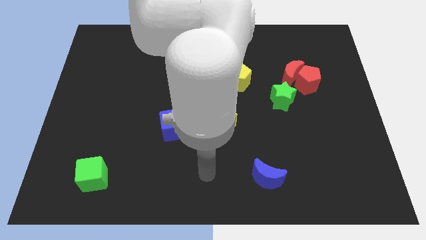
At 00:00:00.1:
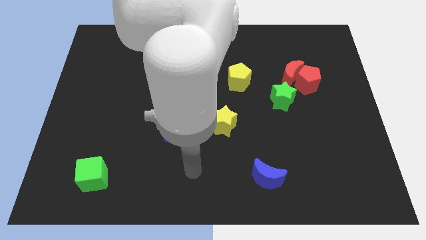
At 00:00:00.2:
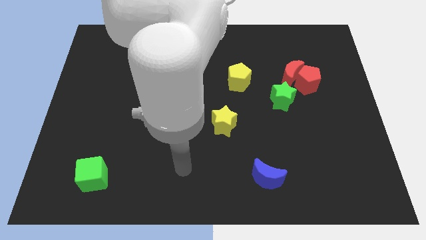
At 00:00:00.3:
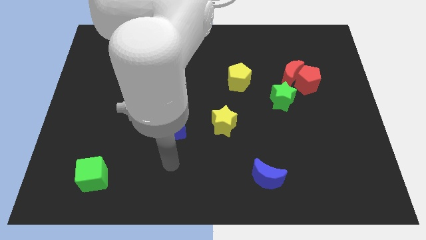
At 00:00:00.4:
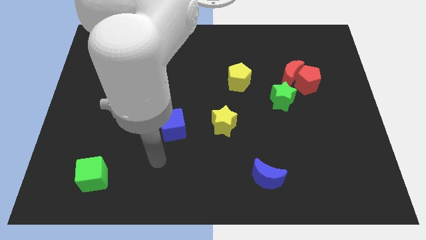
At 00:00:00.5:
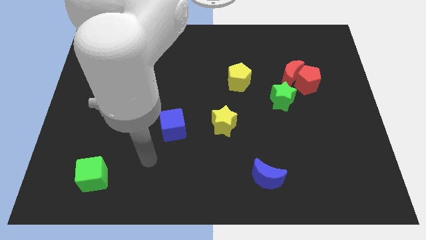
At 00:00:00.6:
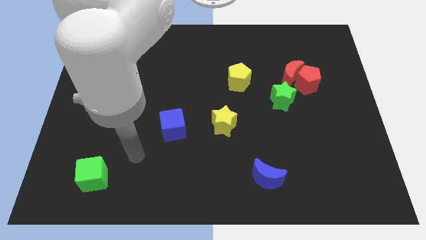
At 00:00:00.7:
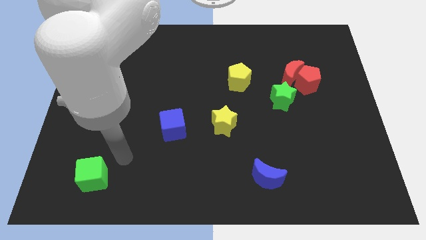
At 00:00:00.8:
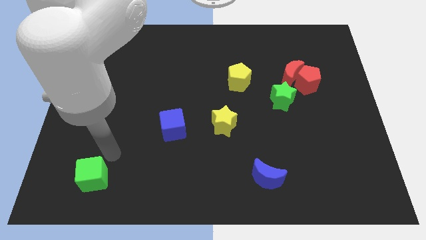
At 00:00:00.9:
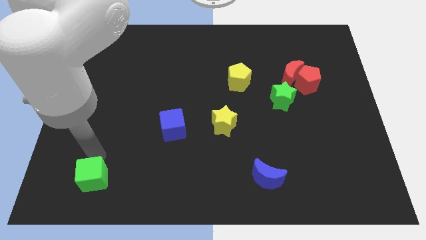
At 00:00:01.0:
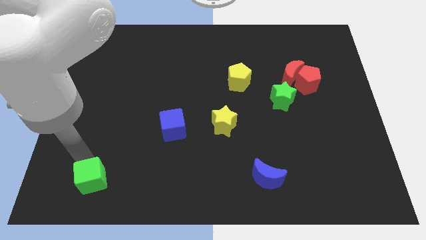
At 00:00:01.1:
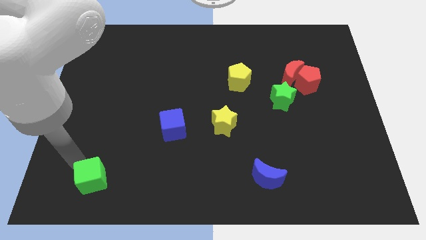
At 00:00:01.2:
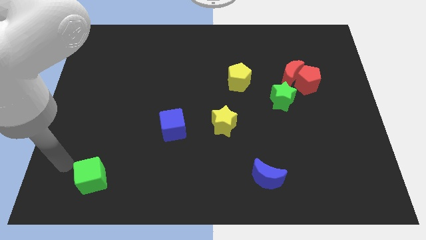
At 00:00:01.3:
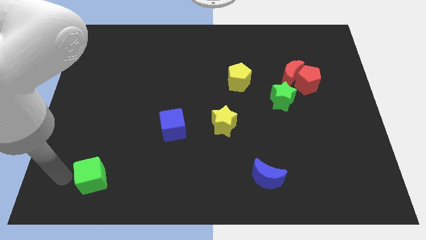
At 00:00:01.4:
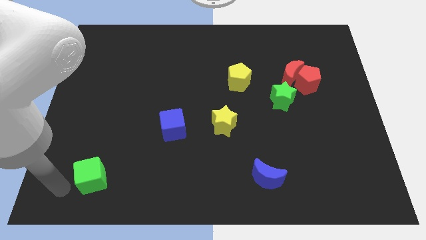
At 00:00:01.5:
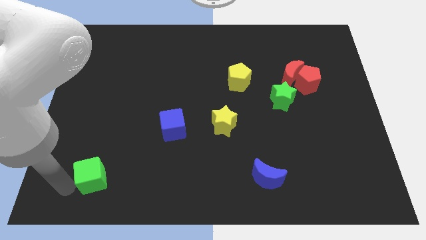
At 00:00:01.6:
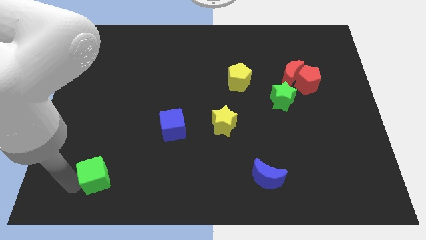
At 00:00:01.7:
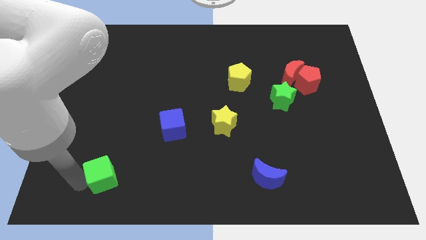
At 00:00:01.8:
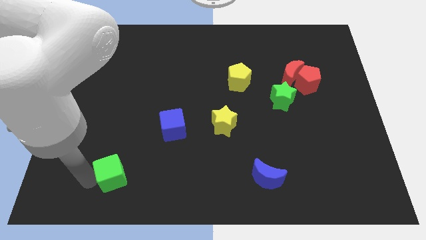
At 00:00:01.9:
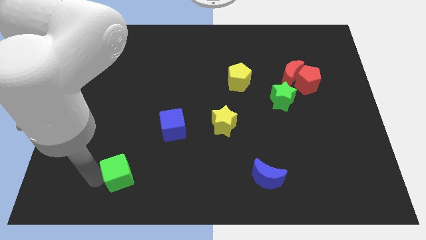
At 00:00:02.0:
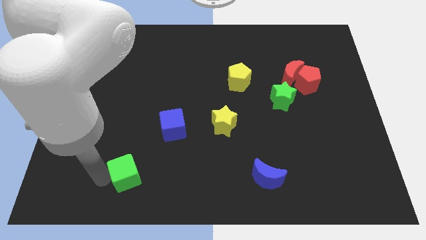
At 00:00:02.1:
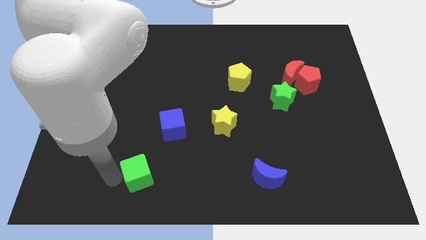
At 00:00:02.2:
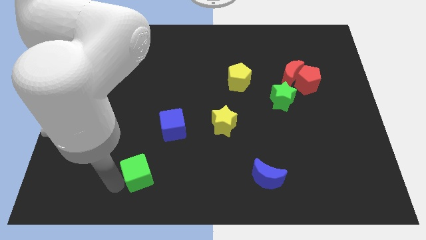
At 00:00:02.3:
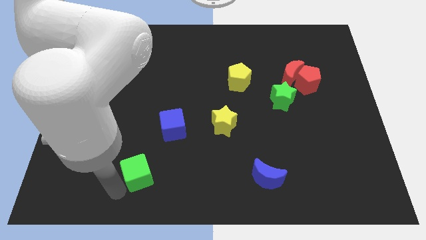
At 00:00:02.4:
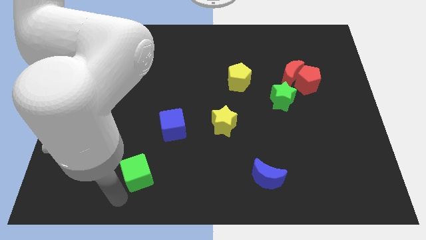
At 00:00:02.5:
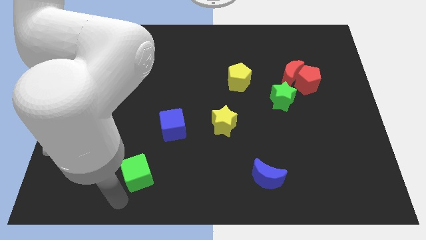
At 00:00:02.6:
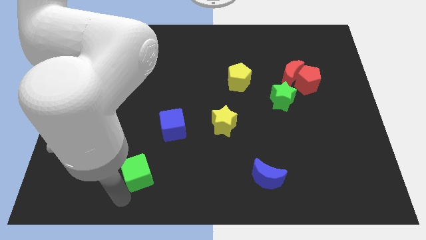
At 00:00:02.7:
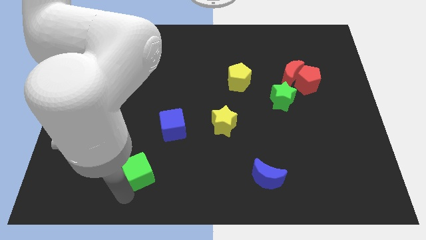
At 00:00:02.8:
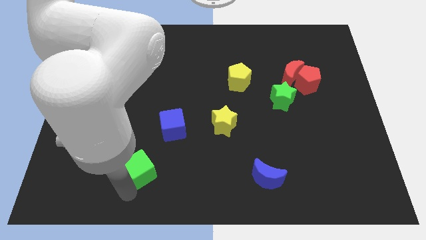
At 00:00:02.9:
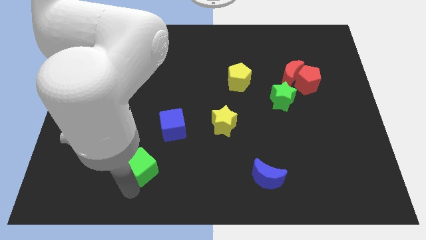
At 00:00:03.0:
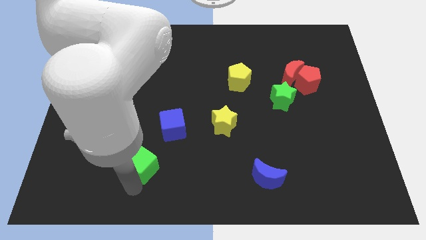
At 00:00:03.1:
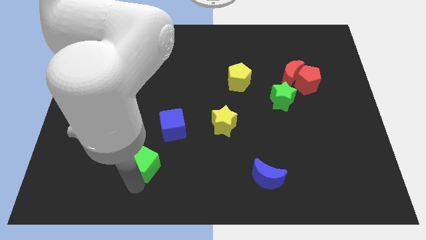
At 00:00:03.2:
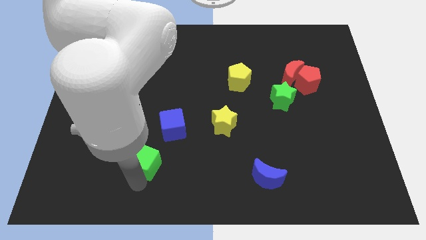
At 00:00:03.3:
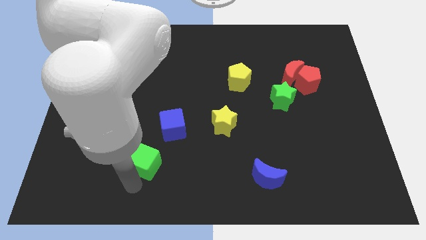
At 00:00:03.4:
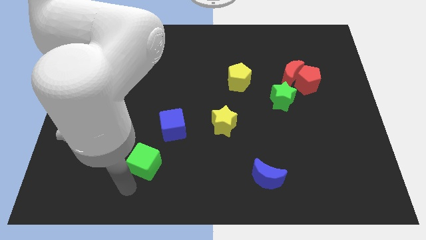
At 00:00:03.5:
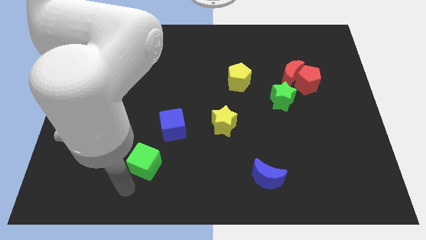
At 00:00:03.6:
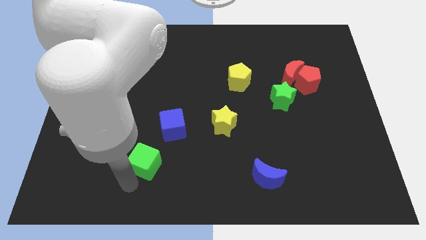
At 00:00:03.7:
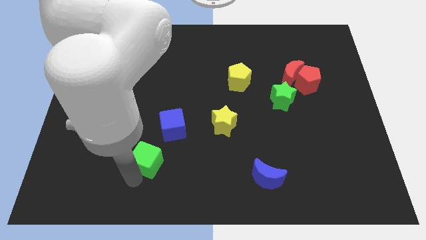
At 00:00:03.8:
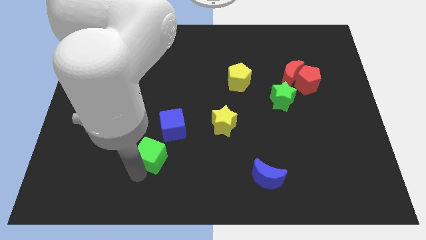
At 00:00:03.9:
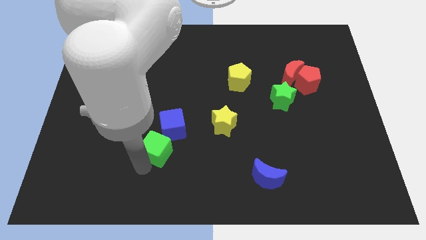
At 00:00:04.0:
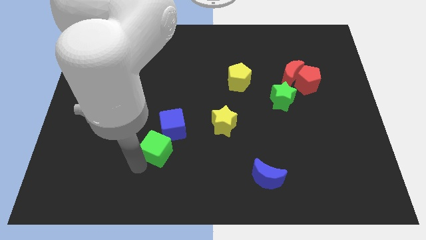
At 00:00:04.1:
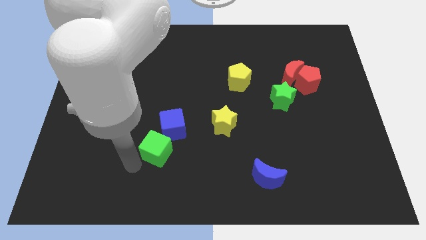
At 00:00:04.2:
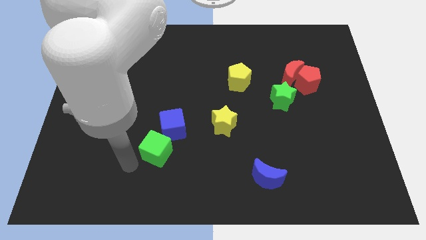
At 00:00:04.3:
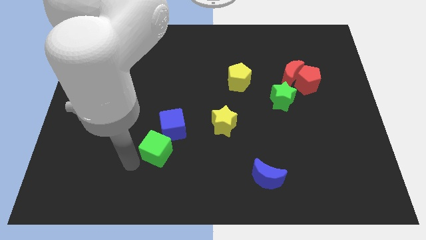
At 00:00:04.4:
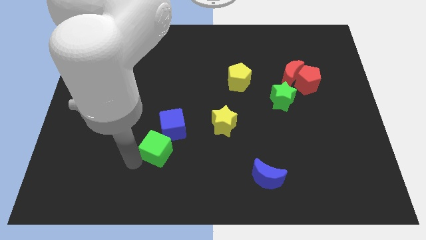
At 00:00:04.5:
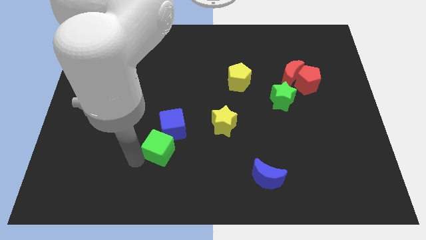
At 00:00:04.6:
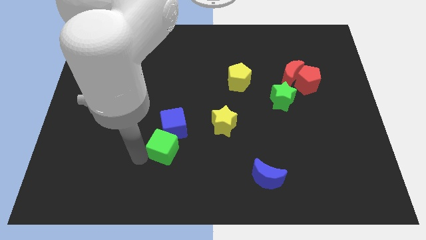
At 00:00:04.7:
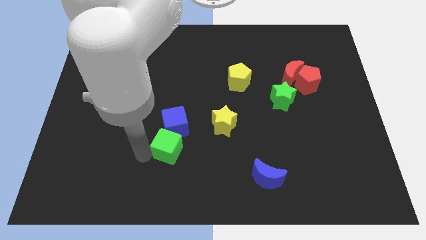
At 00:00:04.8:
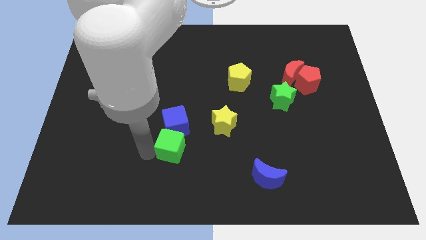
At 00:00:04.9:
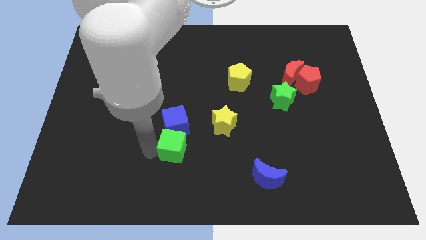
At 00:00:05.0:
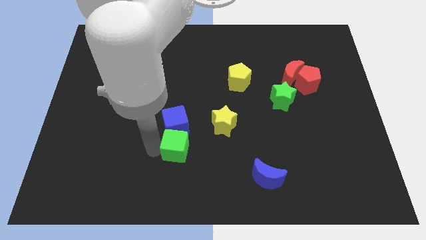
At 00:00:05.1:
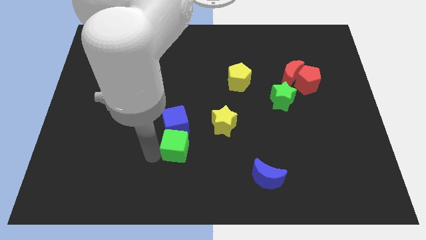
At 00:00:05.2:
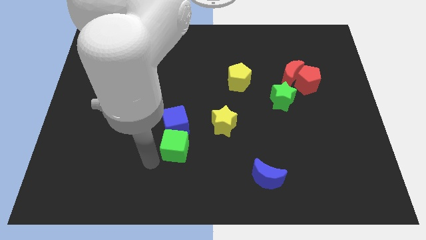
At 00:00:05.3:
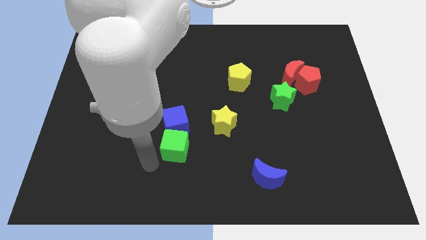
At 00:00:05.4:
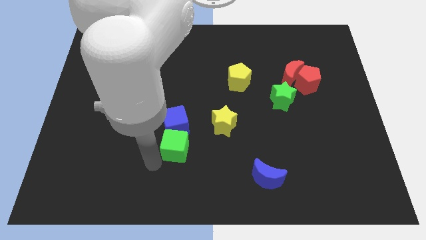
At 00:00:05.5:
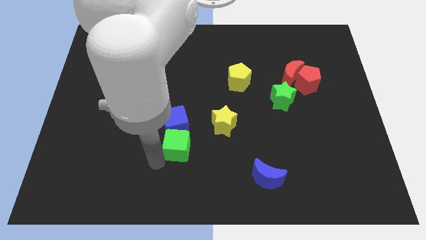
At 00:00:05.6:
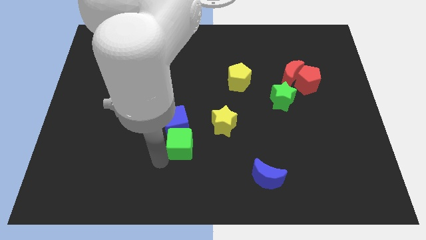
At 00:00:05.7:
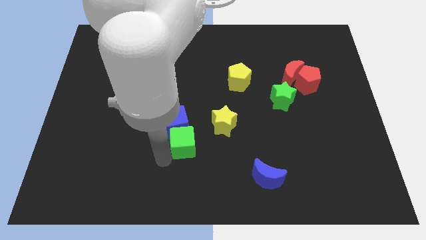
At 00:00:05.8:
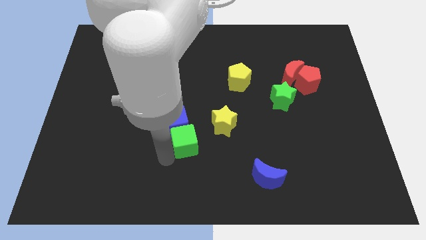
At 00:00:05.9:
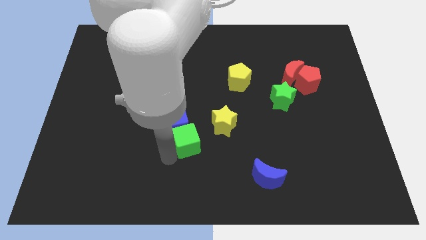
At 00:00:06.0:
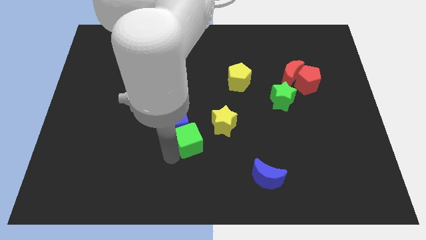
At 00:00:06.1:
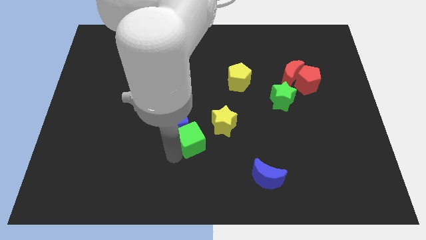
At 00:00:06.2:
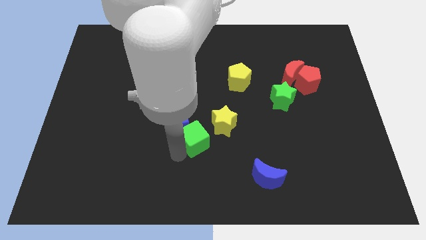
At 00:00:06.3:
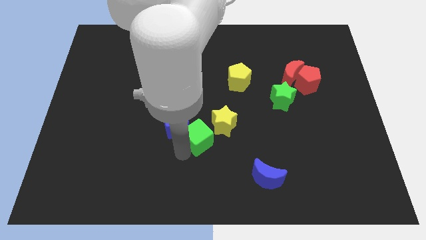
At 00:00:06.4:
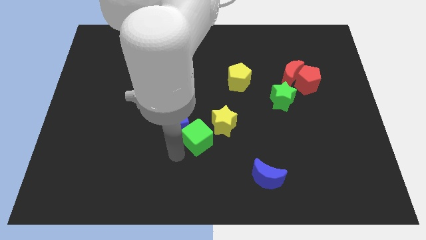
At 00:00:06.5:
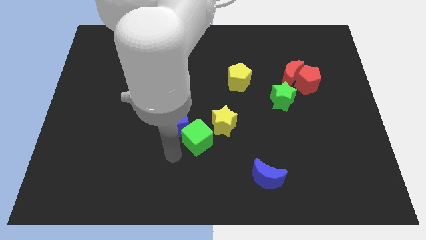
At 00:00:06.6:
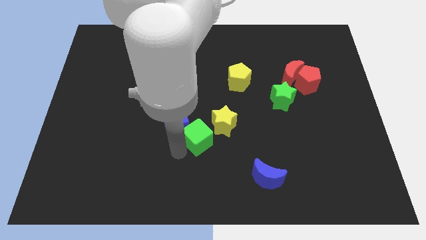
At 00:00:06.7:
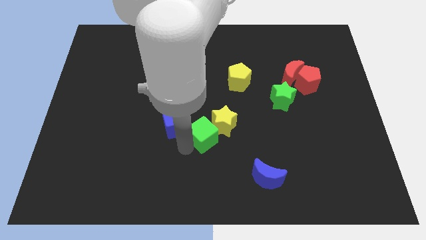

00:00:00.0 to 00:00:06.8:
slide the green cube towards the yellow star

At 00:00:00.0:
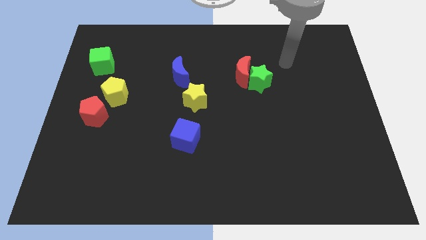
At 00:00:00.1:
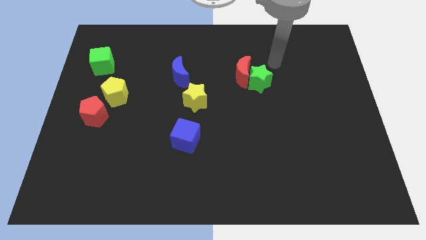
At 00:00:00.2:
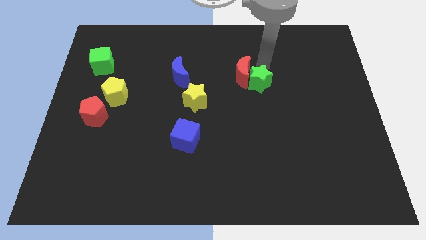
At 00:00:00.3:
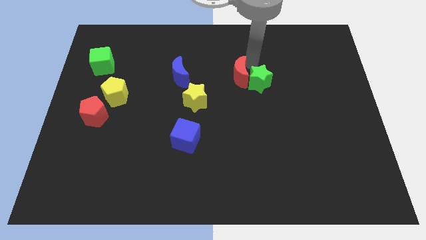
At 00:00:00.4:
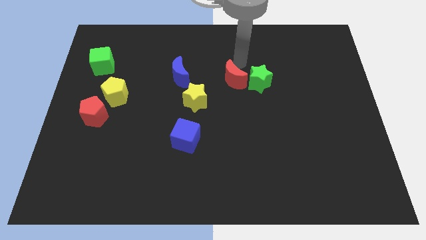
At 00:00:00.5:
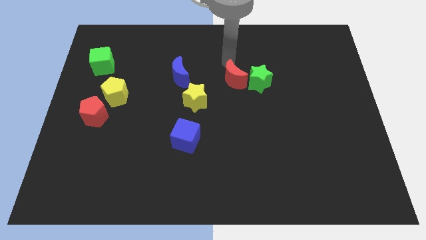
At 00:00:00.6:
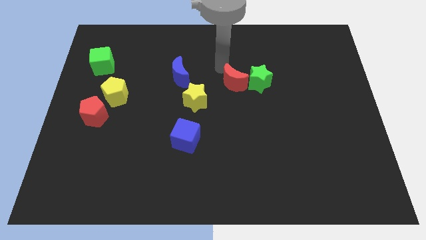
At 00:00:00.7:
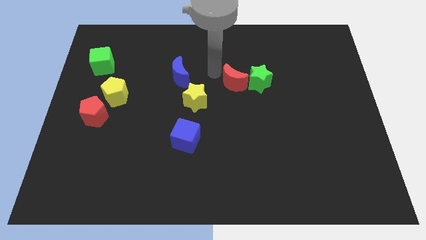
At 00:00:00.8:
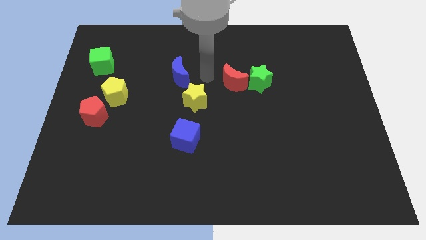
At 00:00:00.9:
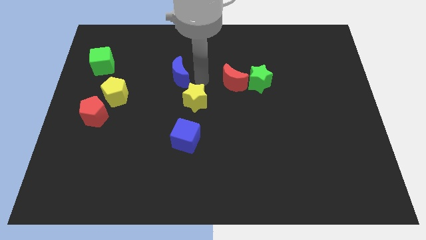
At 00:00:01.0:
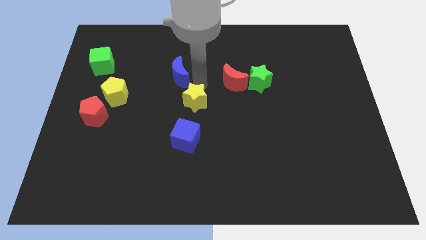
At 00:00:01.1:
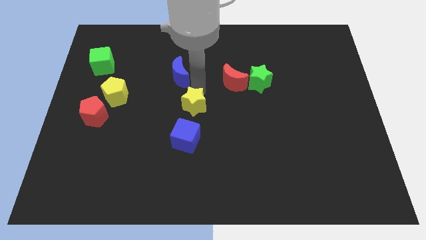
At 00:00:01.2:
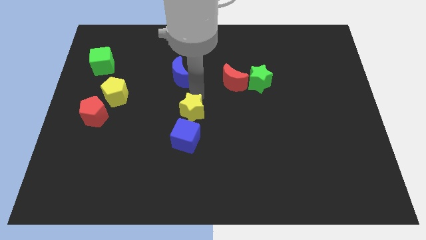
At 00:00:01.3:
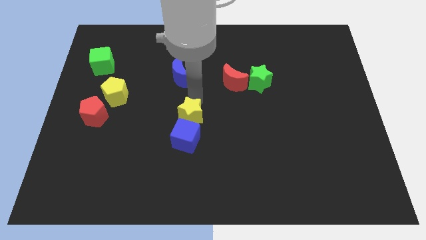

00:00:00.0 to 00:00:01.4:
put the yellow star to the blue cube
